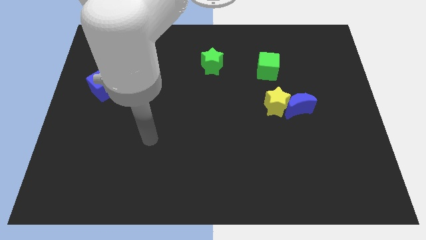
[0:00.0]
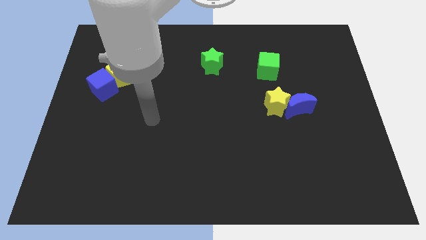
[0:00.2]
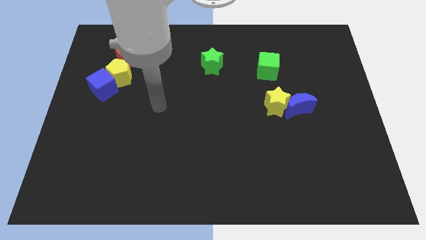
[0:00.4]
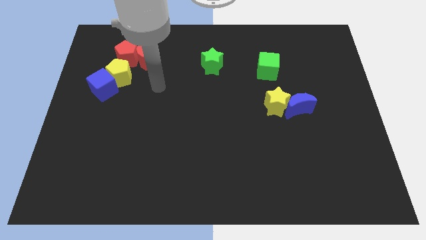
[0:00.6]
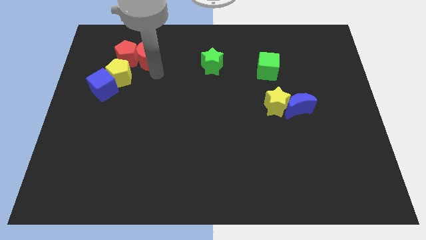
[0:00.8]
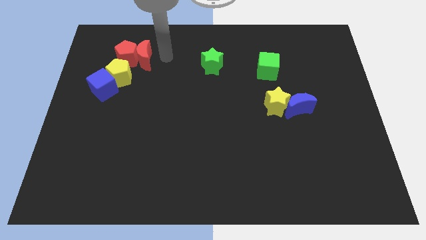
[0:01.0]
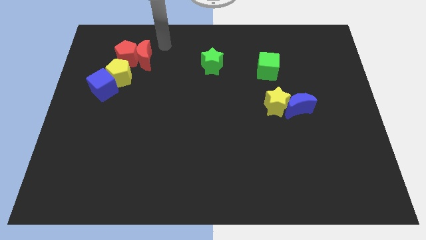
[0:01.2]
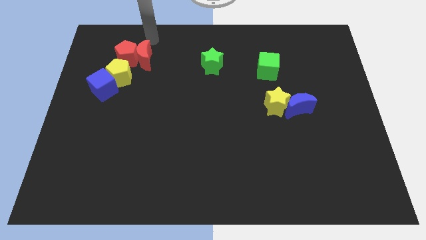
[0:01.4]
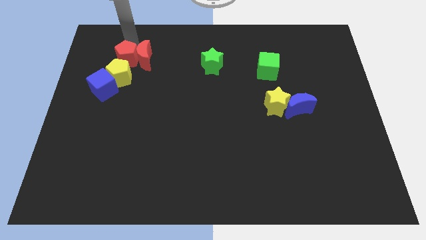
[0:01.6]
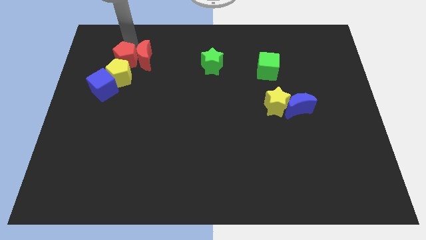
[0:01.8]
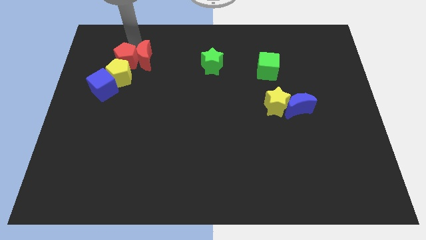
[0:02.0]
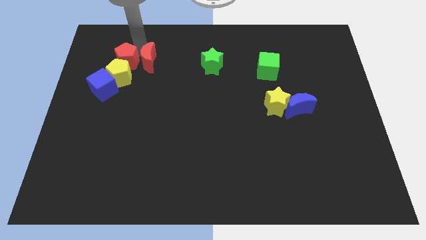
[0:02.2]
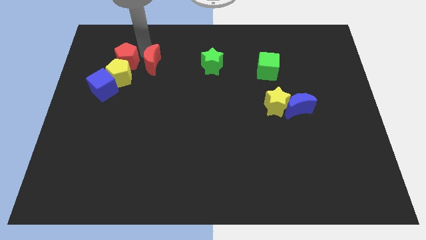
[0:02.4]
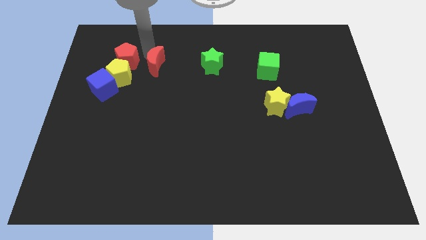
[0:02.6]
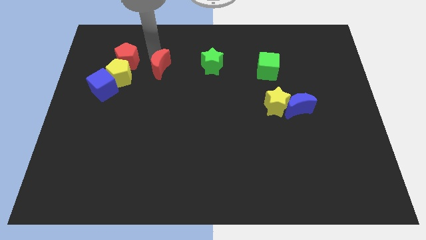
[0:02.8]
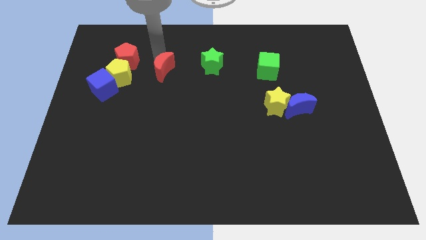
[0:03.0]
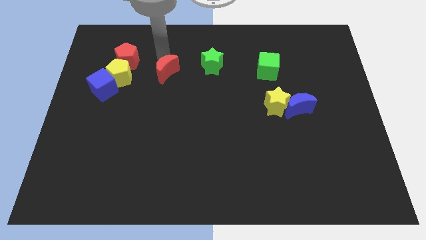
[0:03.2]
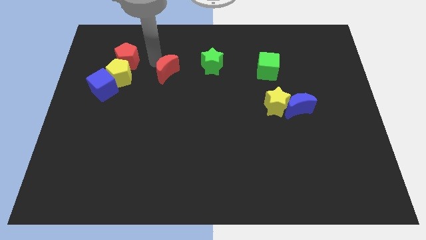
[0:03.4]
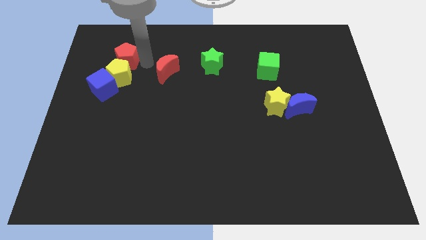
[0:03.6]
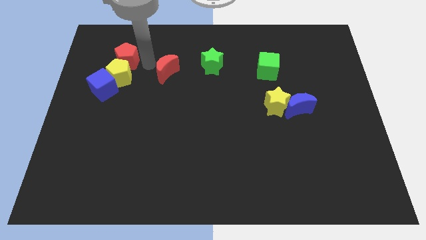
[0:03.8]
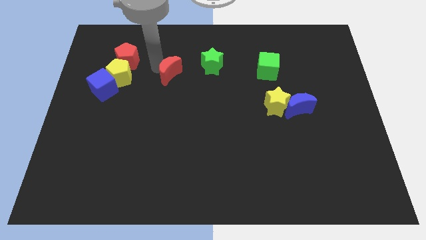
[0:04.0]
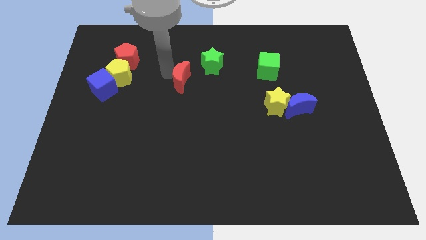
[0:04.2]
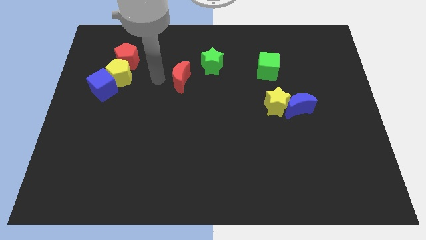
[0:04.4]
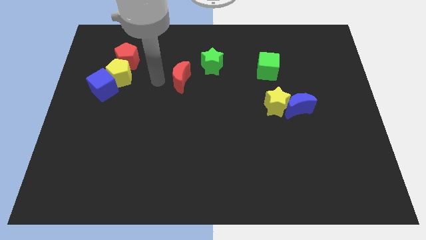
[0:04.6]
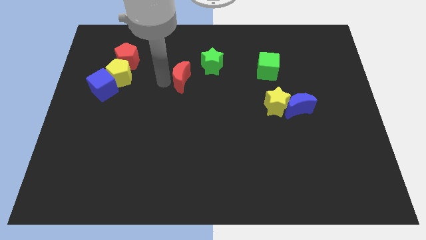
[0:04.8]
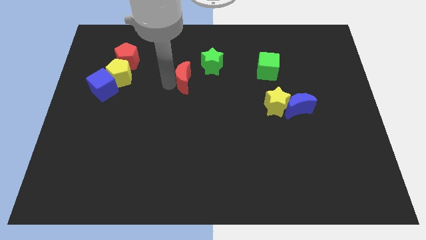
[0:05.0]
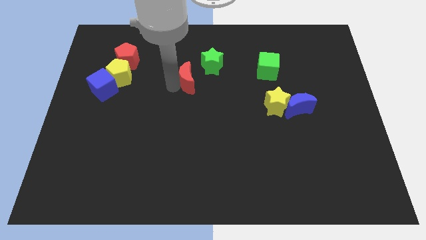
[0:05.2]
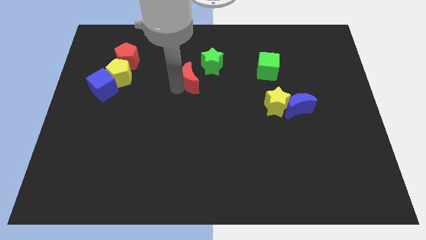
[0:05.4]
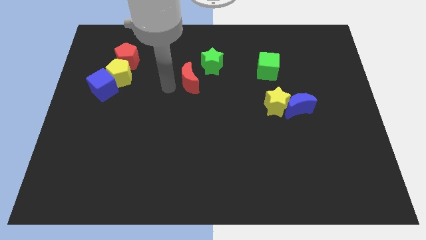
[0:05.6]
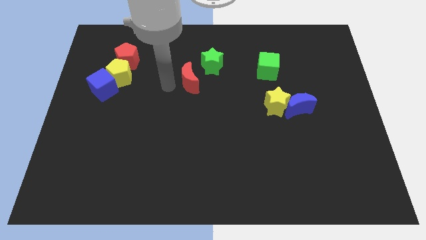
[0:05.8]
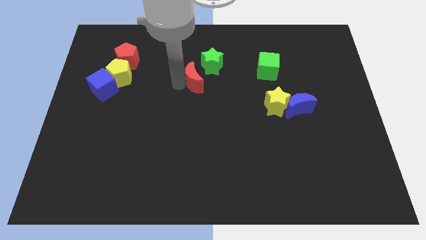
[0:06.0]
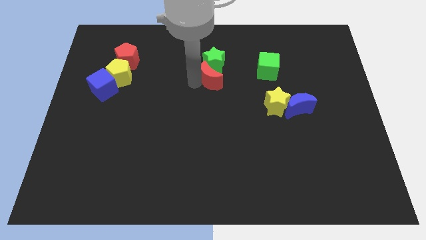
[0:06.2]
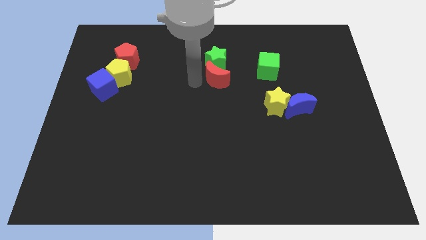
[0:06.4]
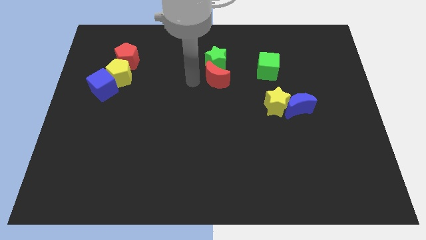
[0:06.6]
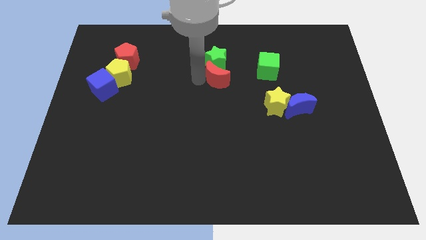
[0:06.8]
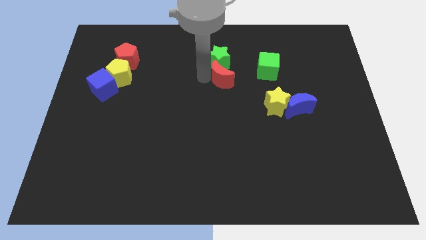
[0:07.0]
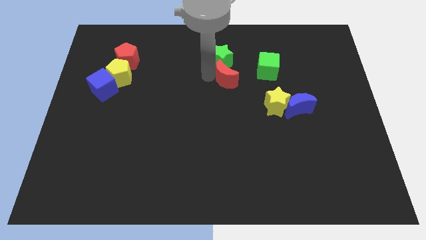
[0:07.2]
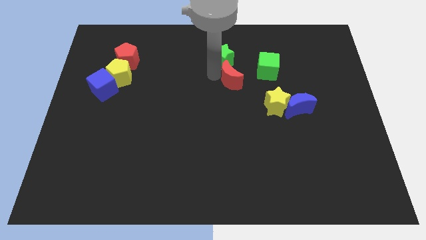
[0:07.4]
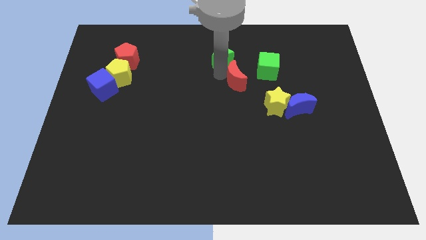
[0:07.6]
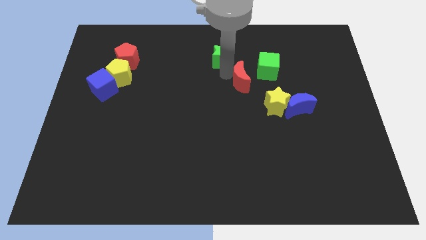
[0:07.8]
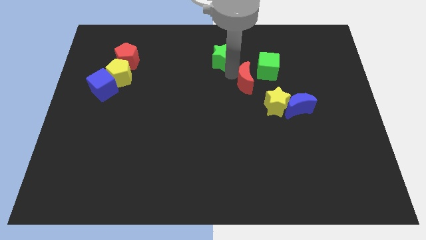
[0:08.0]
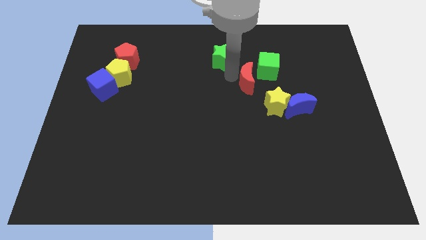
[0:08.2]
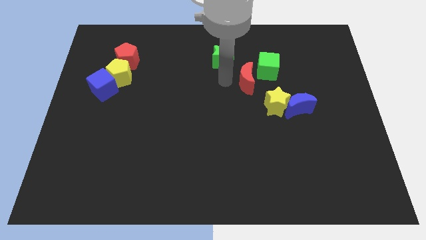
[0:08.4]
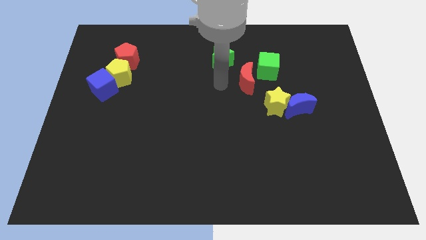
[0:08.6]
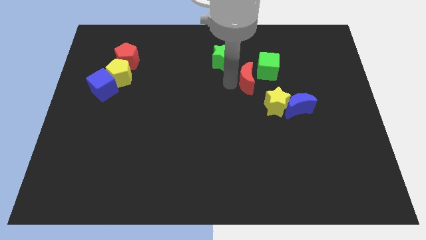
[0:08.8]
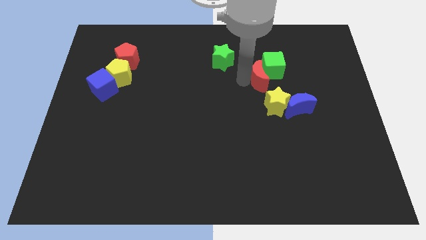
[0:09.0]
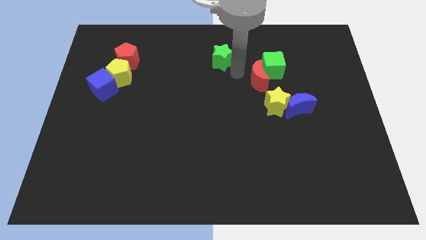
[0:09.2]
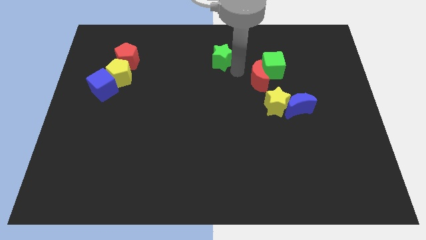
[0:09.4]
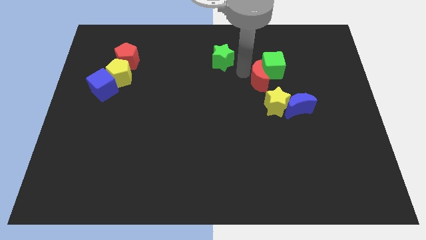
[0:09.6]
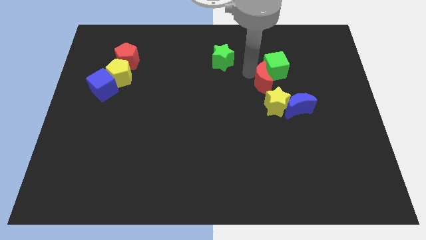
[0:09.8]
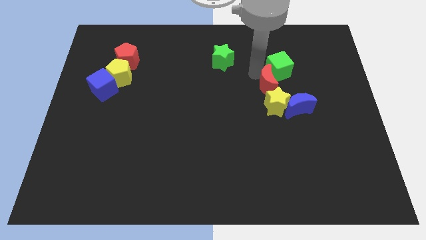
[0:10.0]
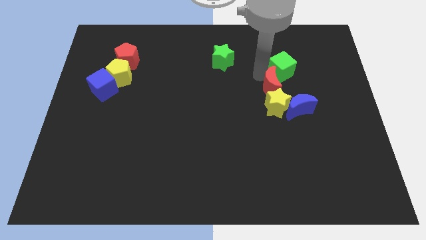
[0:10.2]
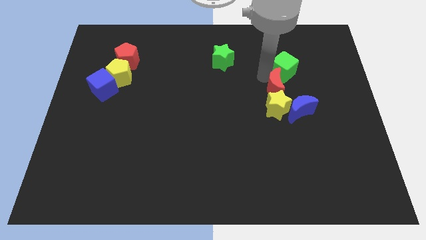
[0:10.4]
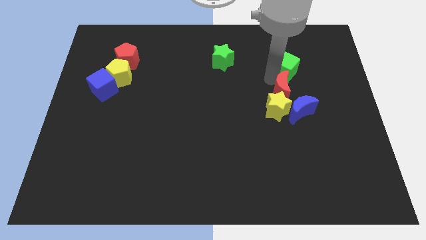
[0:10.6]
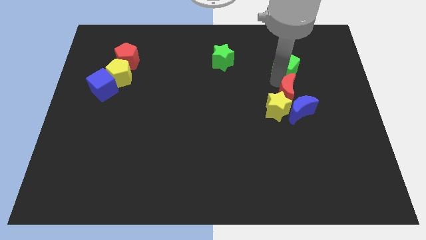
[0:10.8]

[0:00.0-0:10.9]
slide the red moon next to the blue moon

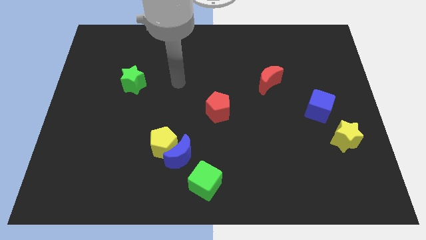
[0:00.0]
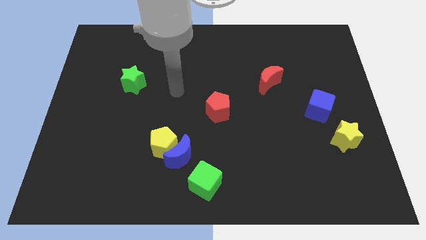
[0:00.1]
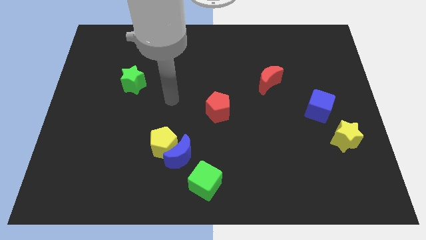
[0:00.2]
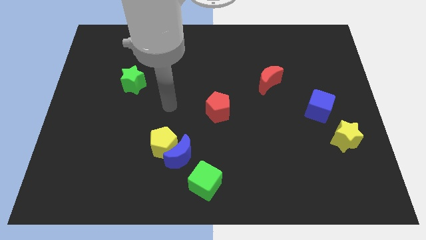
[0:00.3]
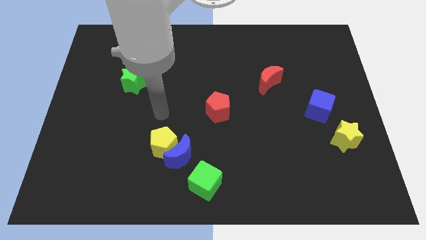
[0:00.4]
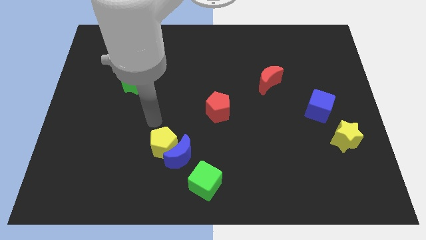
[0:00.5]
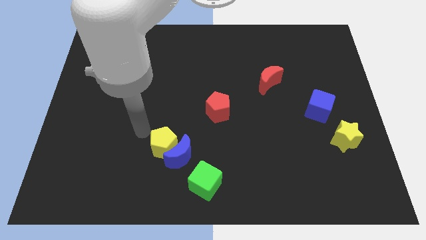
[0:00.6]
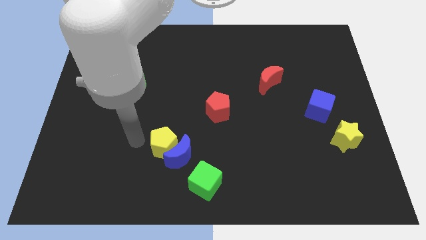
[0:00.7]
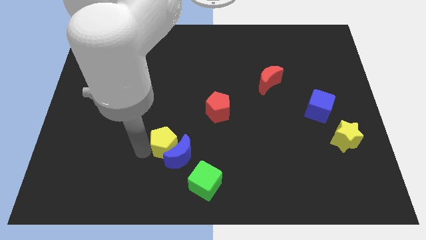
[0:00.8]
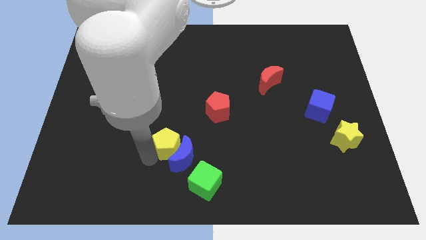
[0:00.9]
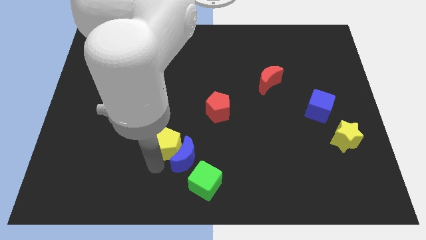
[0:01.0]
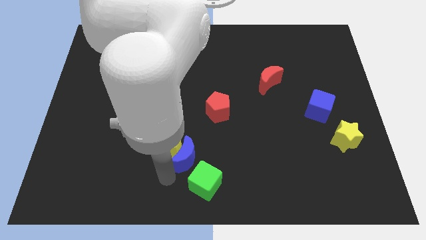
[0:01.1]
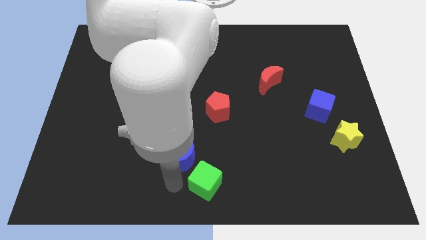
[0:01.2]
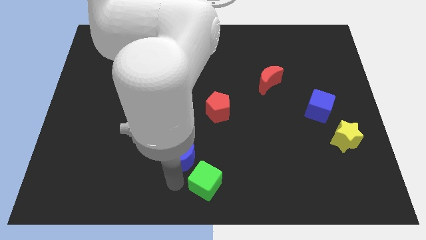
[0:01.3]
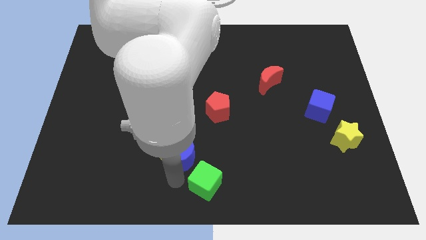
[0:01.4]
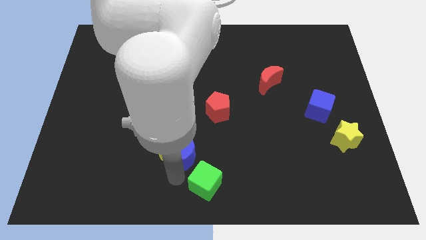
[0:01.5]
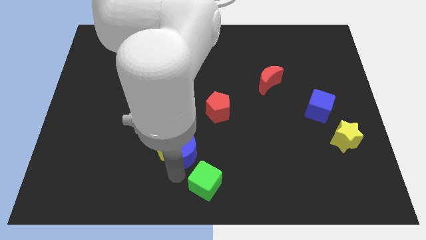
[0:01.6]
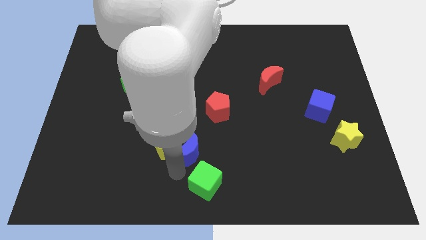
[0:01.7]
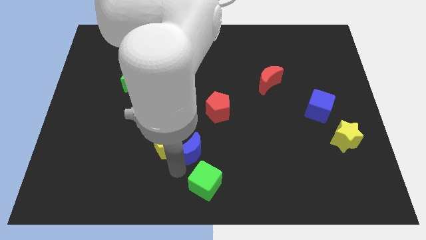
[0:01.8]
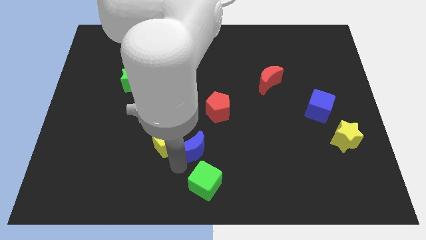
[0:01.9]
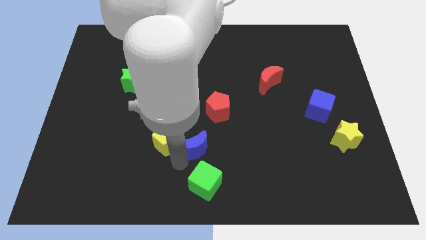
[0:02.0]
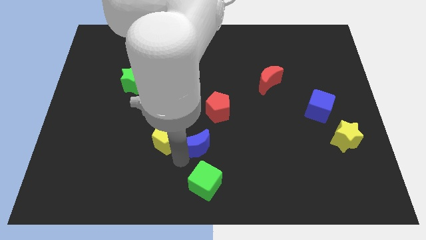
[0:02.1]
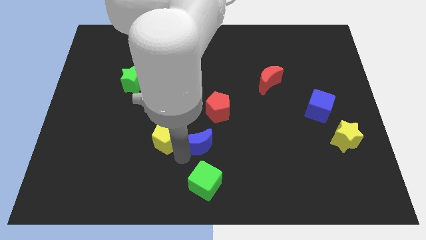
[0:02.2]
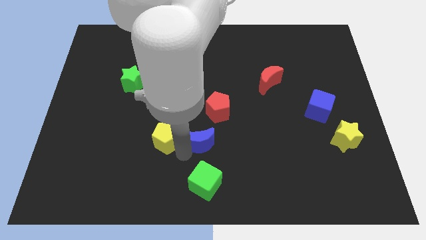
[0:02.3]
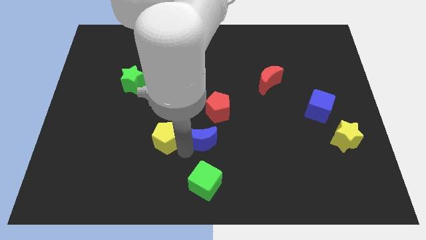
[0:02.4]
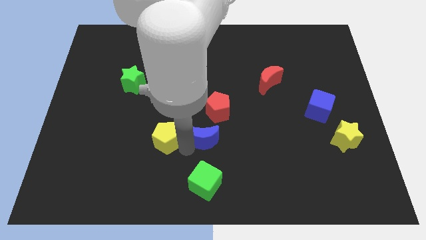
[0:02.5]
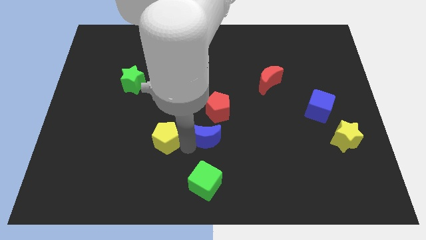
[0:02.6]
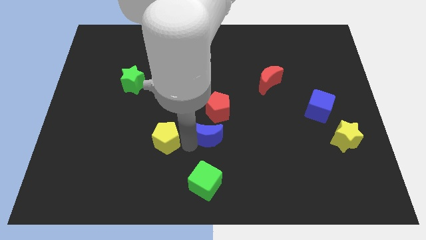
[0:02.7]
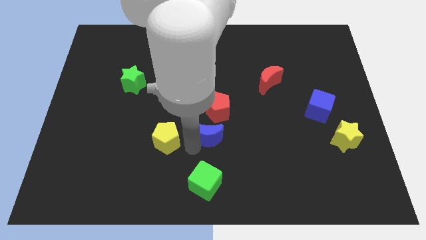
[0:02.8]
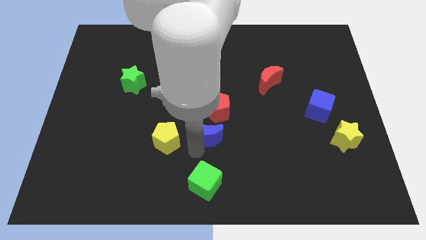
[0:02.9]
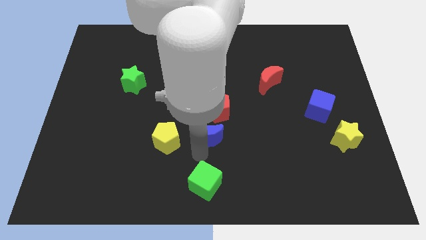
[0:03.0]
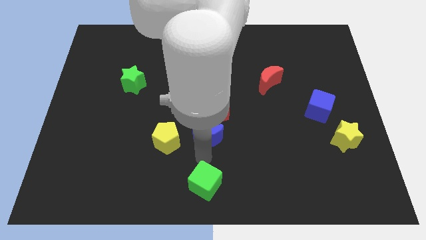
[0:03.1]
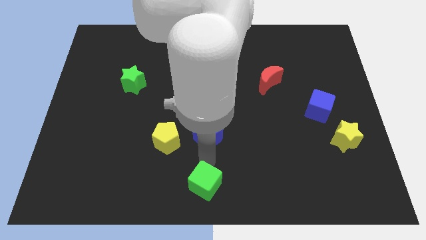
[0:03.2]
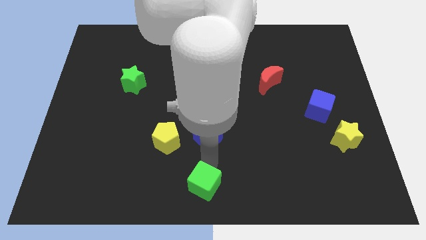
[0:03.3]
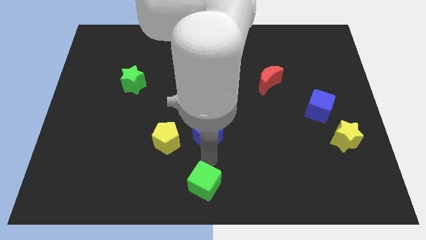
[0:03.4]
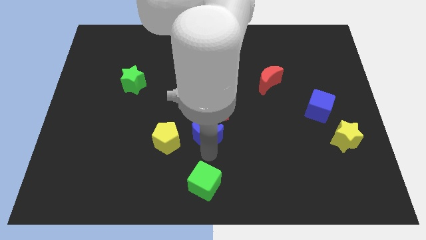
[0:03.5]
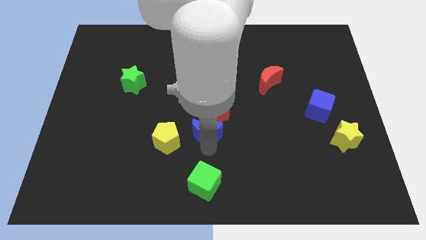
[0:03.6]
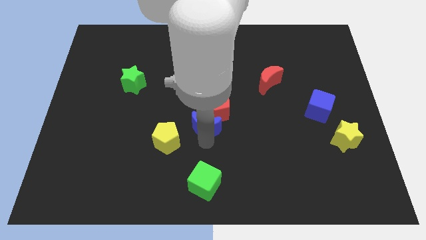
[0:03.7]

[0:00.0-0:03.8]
move the blue moon towards the red pentagon
